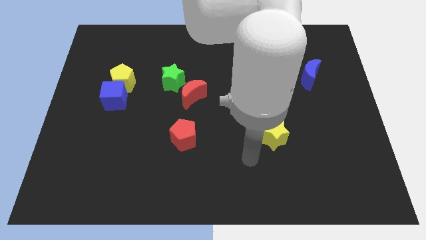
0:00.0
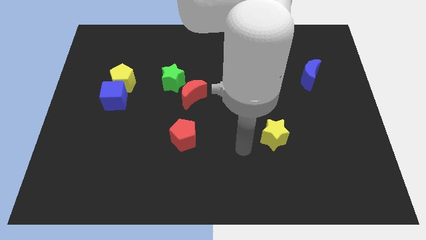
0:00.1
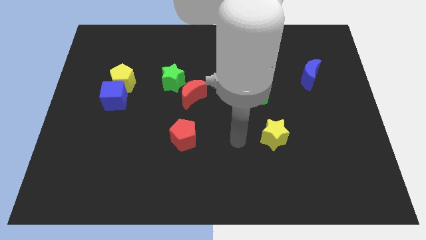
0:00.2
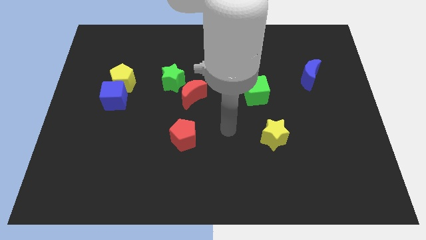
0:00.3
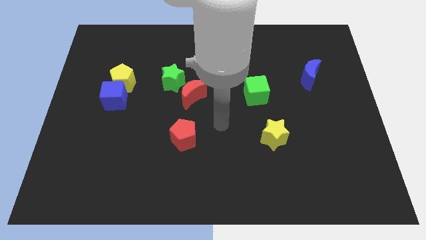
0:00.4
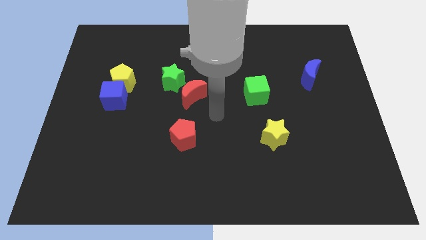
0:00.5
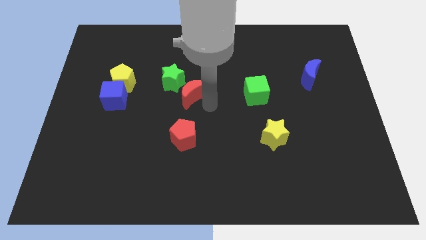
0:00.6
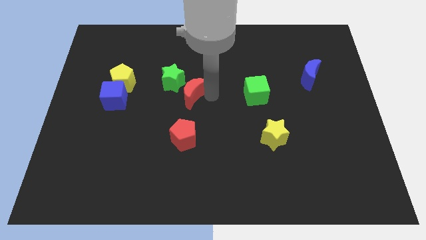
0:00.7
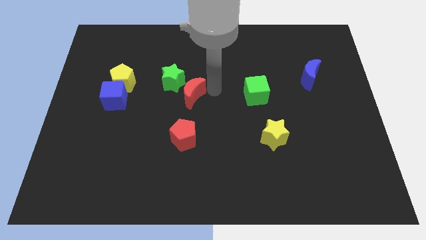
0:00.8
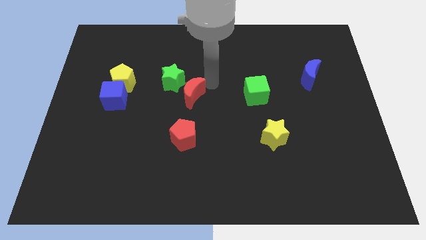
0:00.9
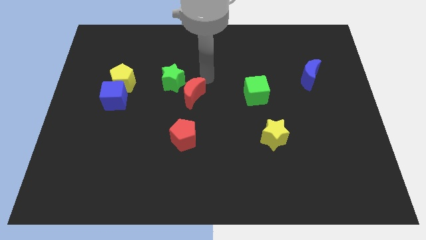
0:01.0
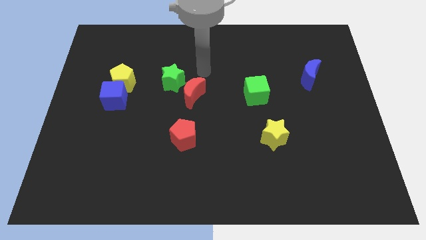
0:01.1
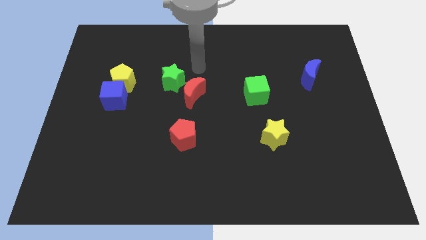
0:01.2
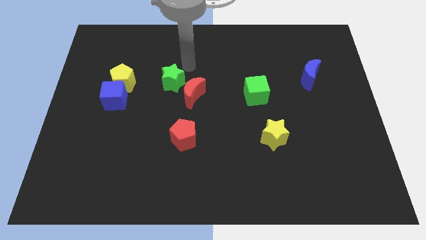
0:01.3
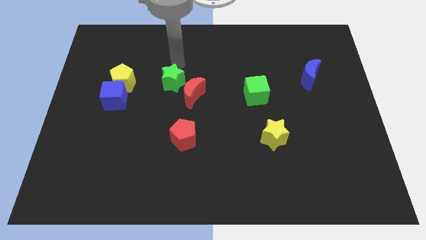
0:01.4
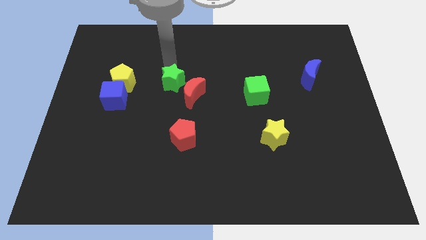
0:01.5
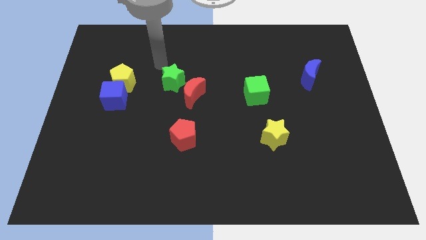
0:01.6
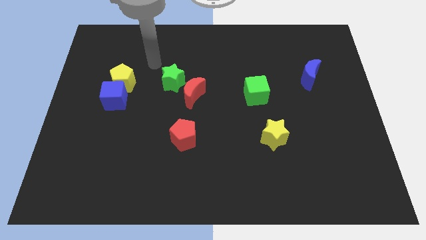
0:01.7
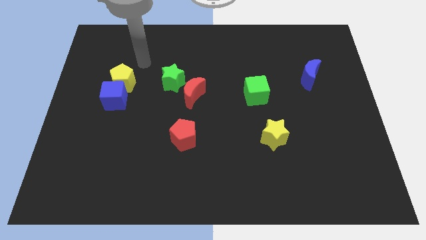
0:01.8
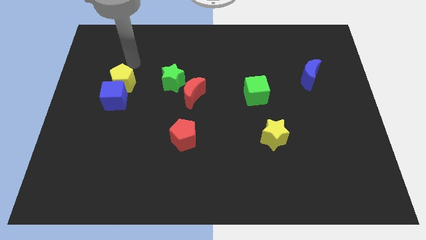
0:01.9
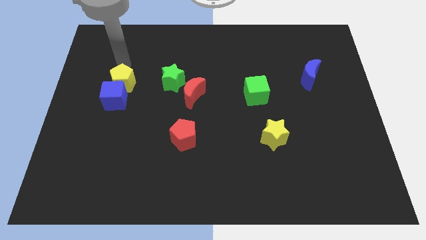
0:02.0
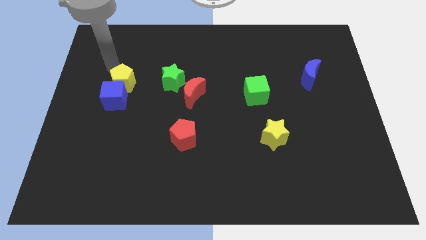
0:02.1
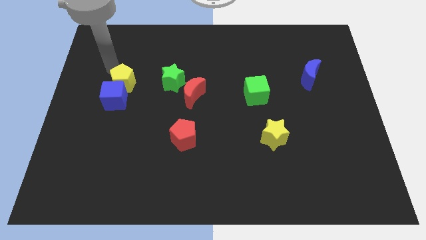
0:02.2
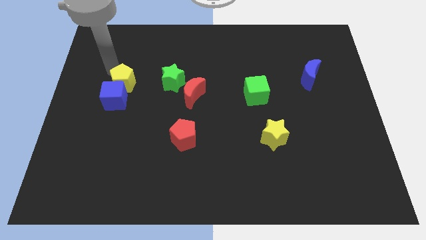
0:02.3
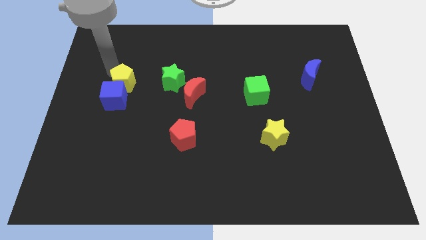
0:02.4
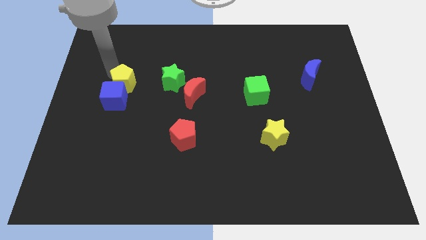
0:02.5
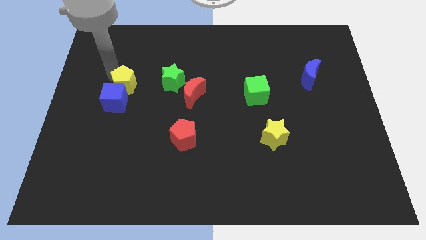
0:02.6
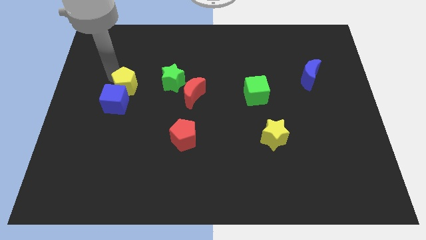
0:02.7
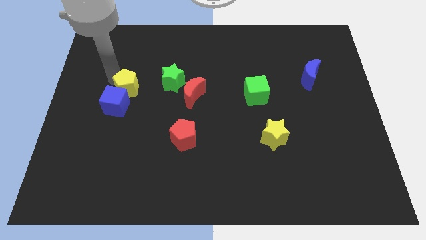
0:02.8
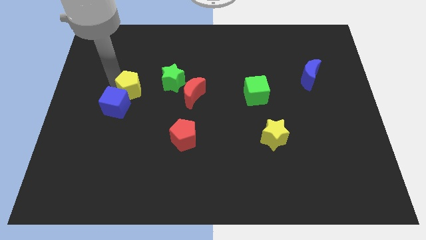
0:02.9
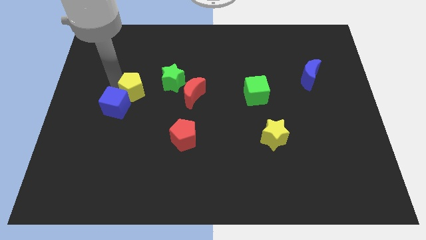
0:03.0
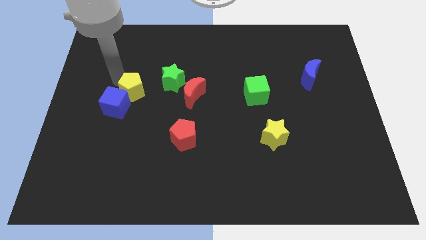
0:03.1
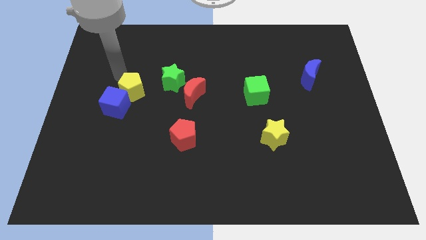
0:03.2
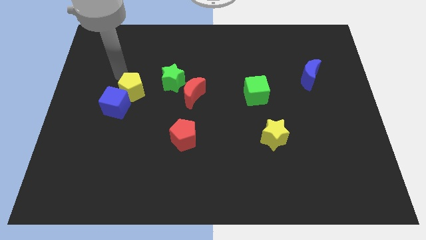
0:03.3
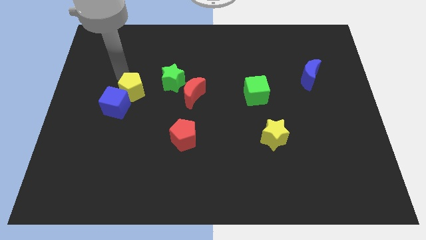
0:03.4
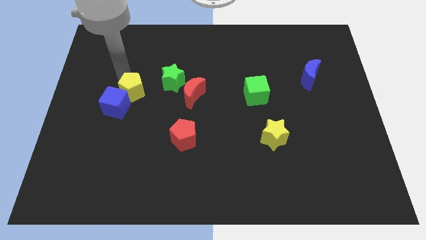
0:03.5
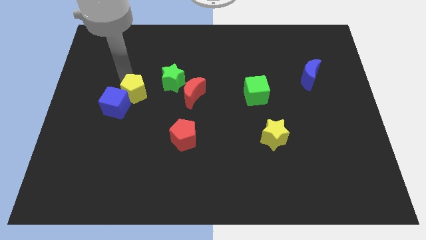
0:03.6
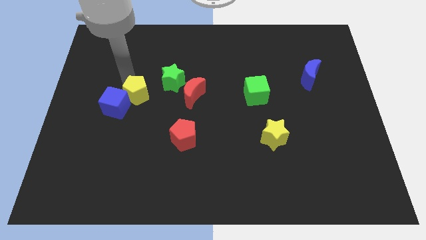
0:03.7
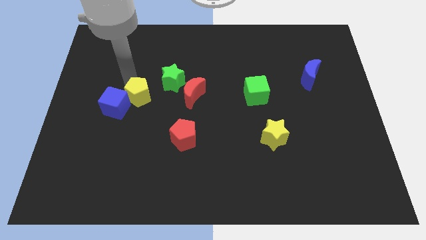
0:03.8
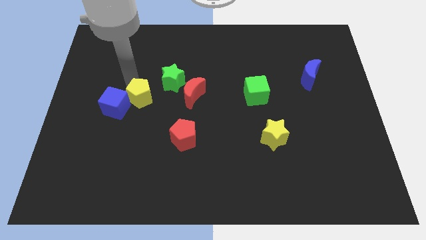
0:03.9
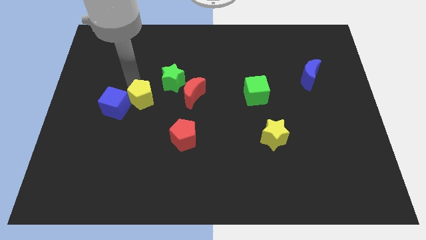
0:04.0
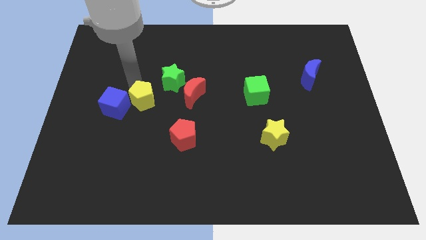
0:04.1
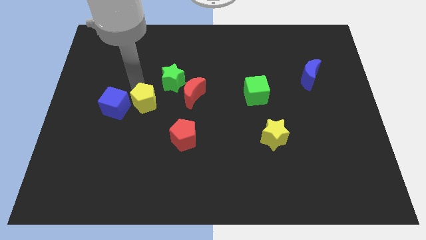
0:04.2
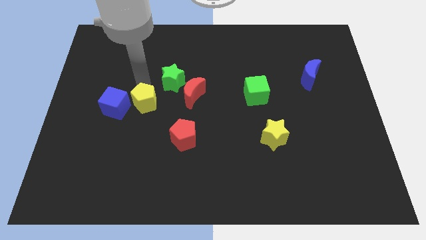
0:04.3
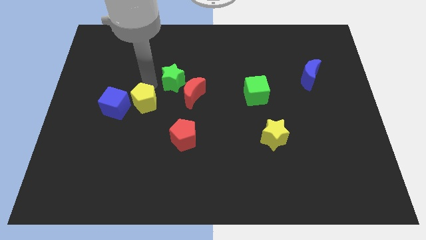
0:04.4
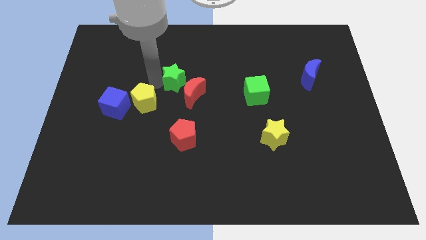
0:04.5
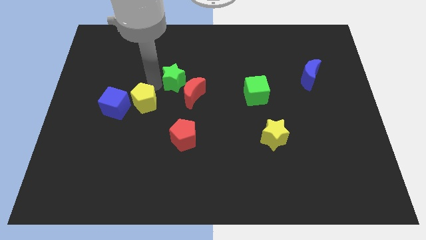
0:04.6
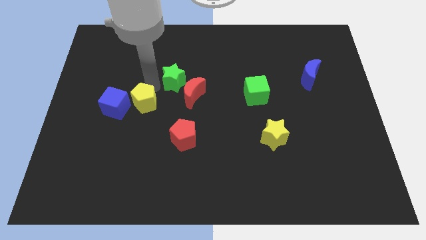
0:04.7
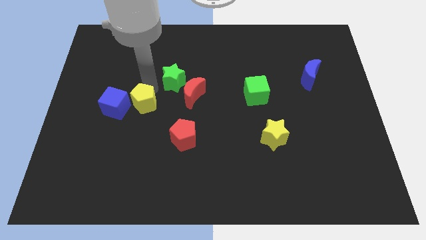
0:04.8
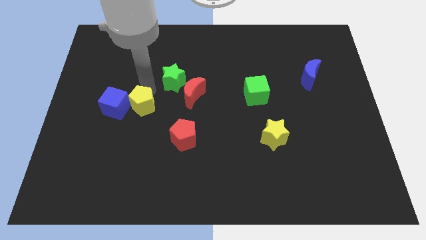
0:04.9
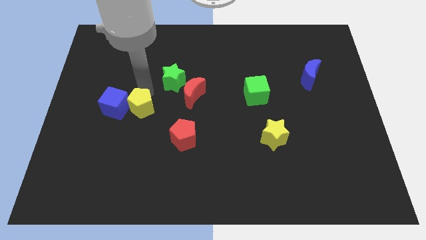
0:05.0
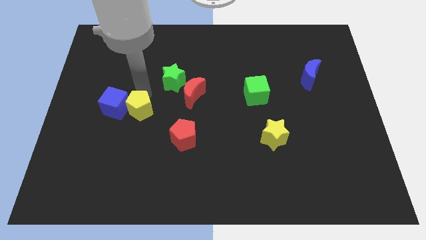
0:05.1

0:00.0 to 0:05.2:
move the yellow pentagon a little bit down

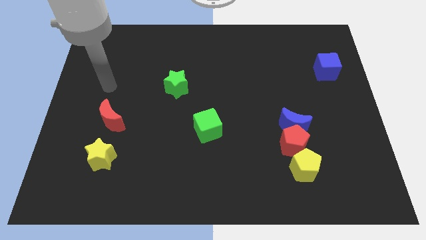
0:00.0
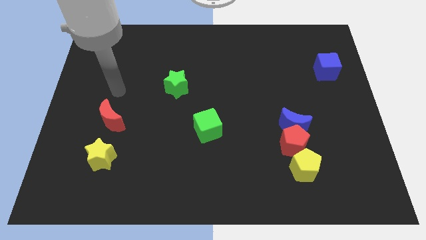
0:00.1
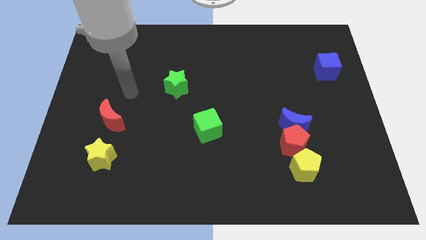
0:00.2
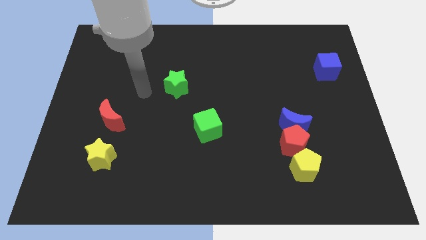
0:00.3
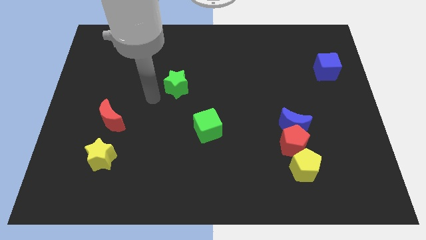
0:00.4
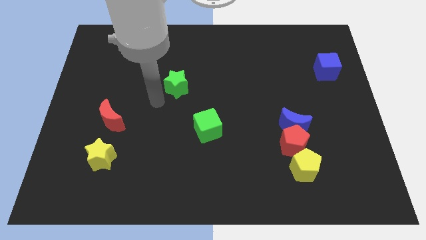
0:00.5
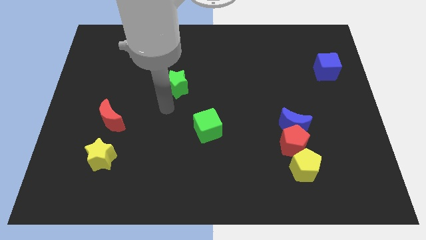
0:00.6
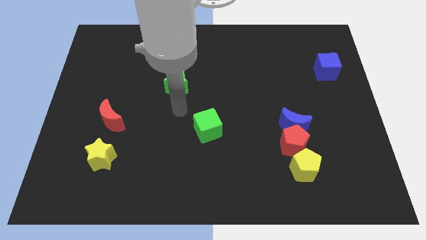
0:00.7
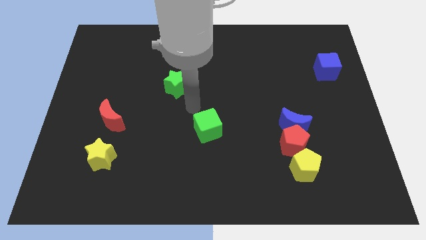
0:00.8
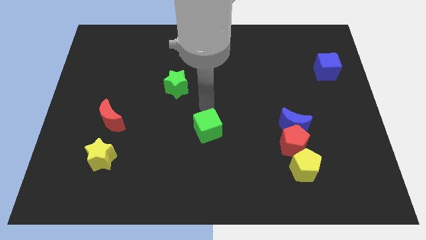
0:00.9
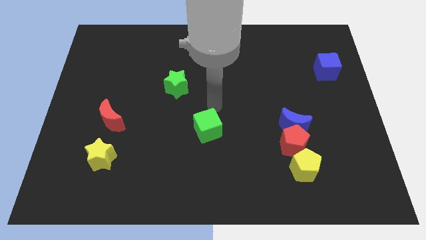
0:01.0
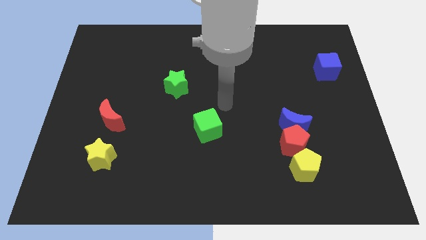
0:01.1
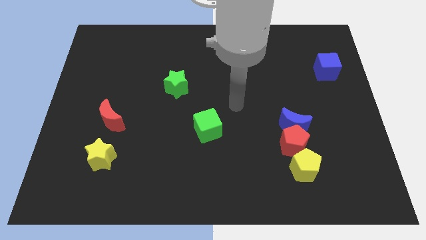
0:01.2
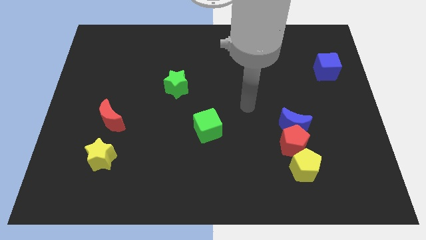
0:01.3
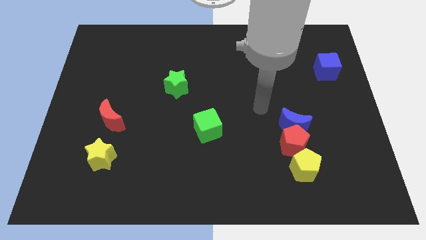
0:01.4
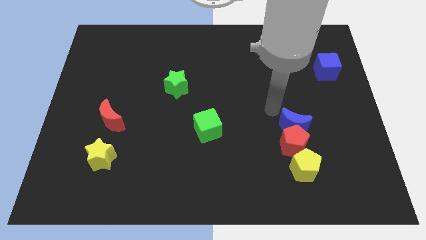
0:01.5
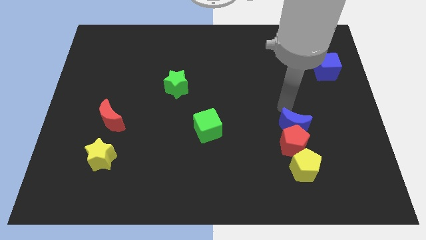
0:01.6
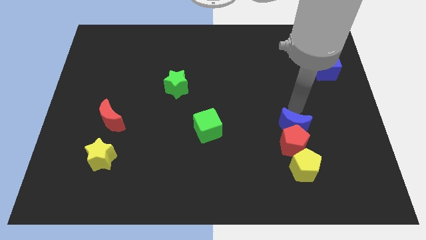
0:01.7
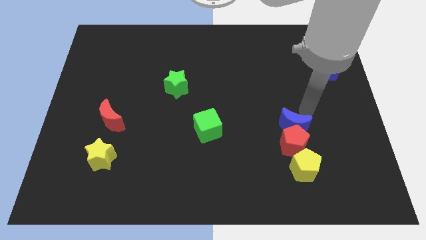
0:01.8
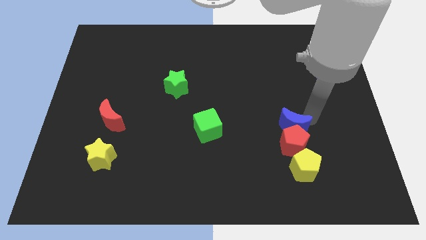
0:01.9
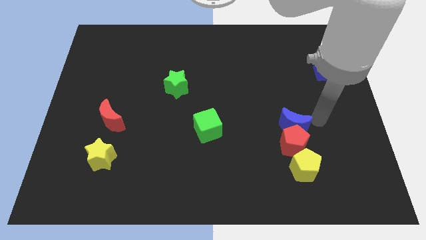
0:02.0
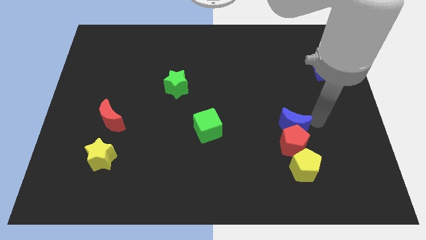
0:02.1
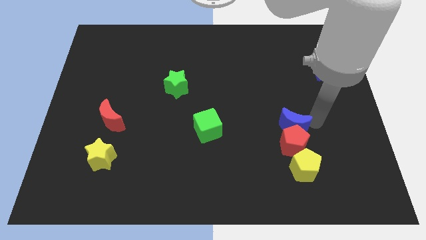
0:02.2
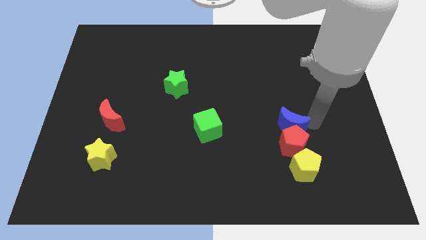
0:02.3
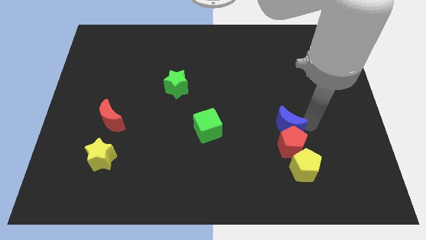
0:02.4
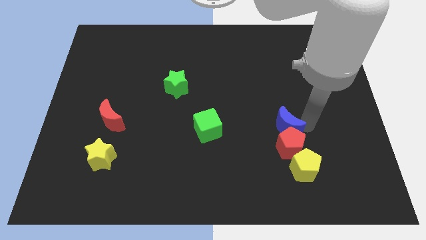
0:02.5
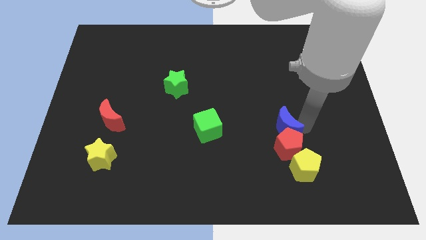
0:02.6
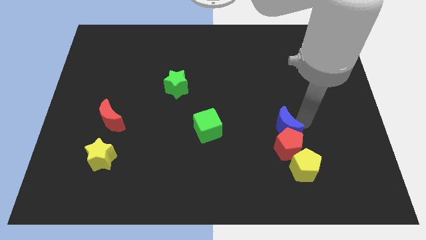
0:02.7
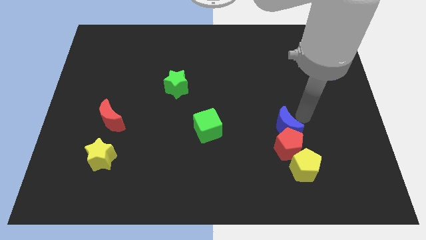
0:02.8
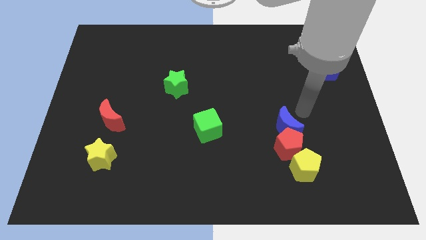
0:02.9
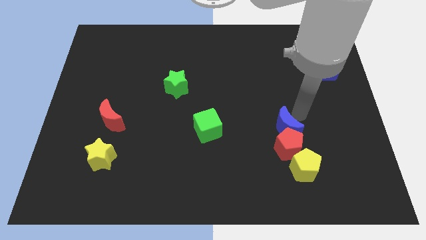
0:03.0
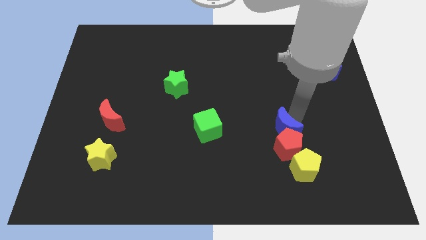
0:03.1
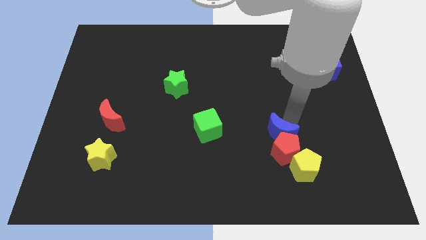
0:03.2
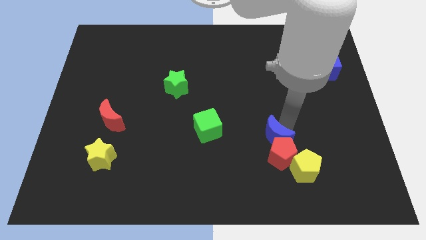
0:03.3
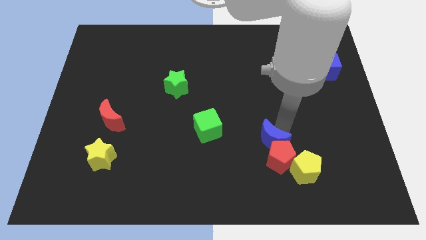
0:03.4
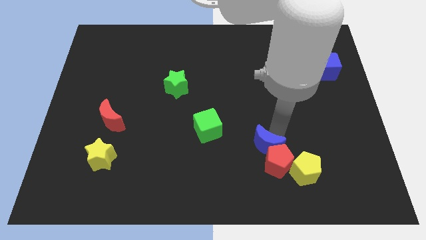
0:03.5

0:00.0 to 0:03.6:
slide the blue moon down and left diagonally slightly
